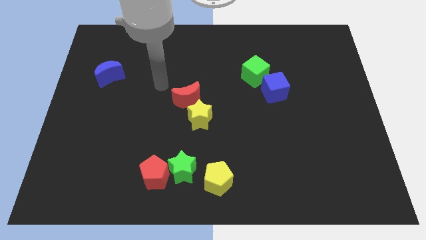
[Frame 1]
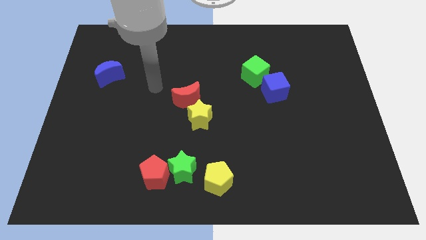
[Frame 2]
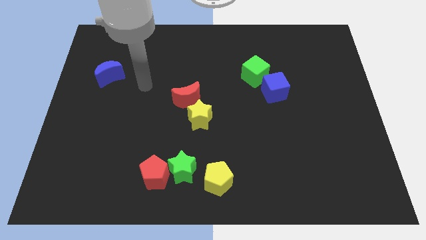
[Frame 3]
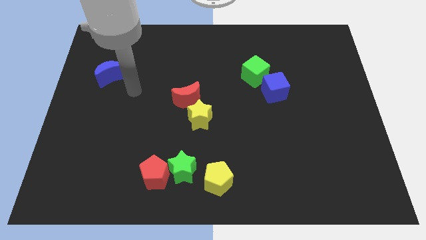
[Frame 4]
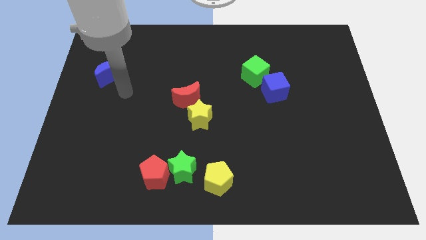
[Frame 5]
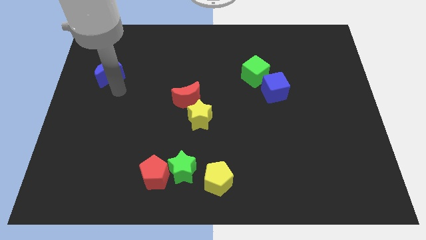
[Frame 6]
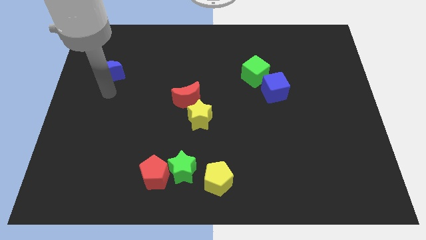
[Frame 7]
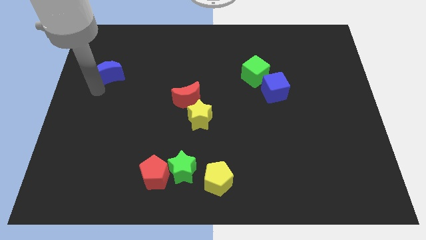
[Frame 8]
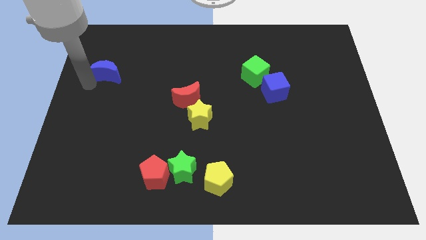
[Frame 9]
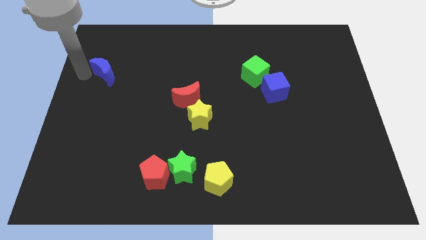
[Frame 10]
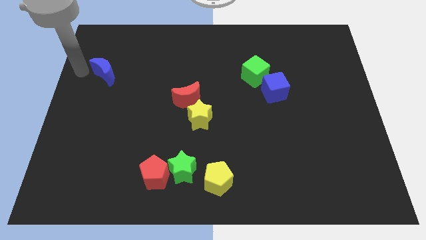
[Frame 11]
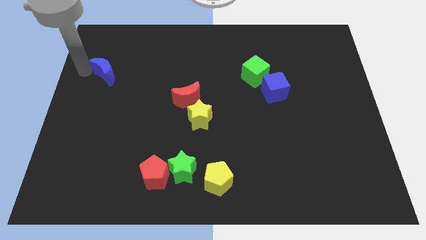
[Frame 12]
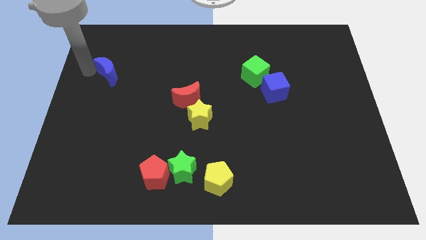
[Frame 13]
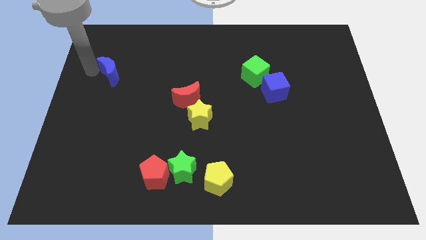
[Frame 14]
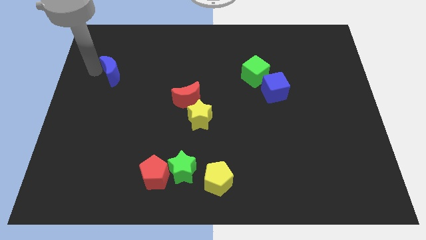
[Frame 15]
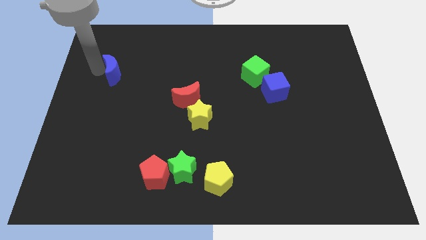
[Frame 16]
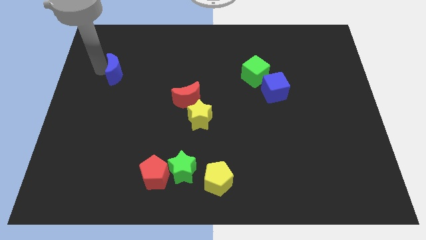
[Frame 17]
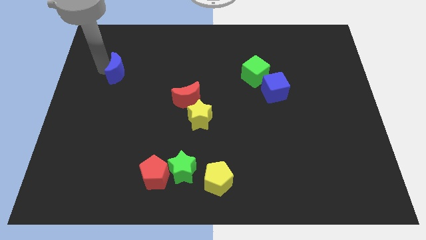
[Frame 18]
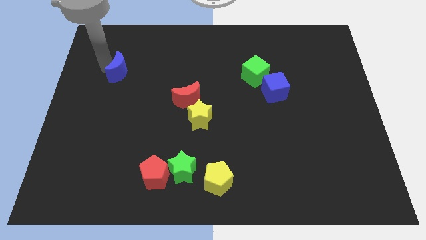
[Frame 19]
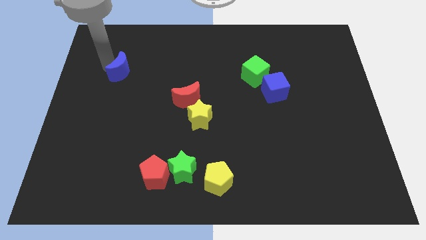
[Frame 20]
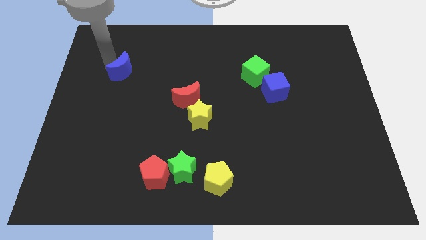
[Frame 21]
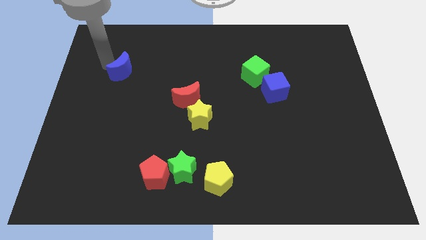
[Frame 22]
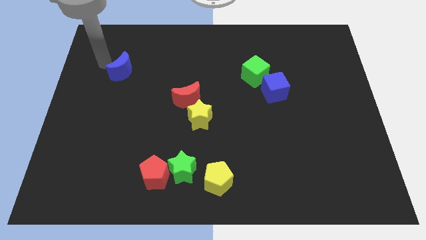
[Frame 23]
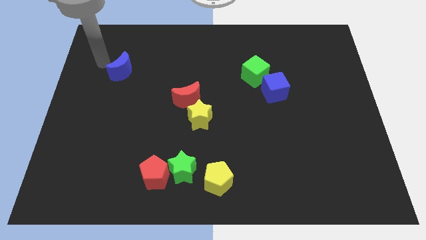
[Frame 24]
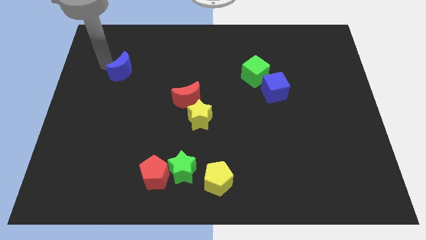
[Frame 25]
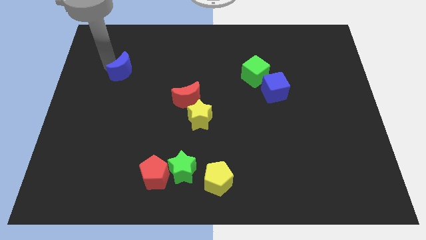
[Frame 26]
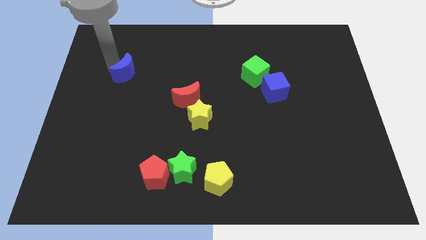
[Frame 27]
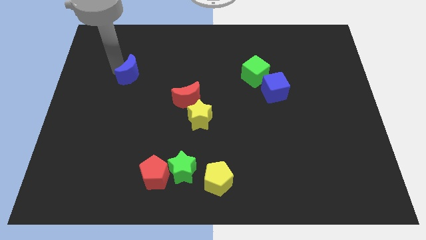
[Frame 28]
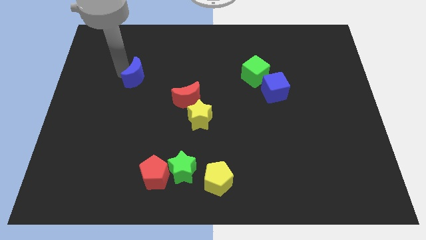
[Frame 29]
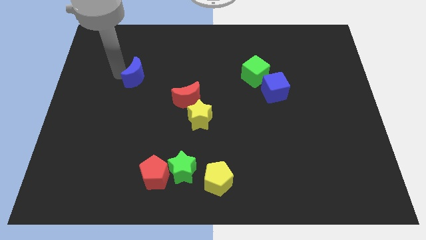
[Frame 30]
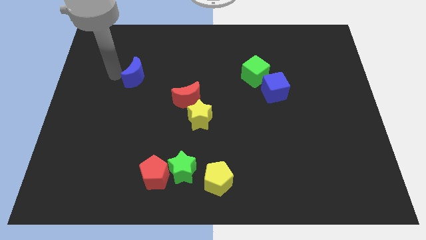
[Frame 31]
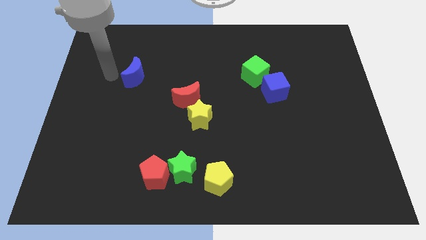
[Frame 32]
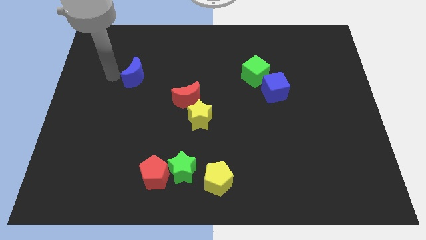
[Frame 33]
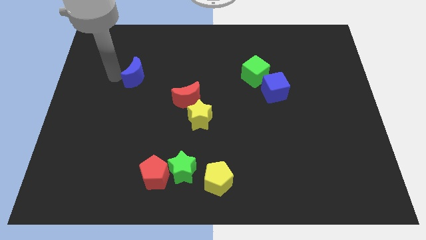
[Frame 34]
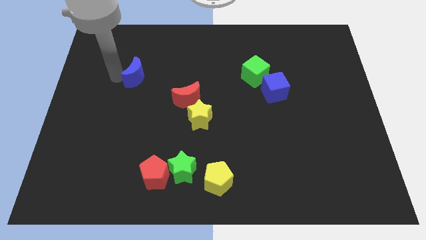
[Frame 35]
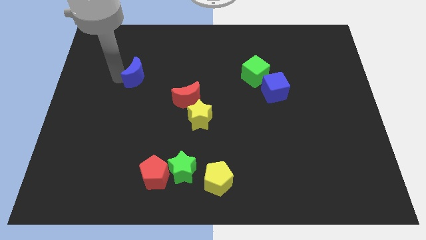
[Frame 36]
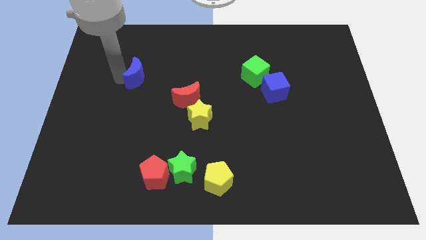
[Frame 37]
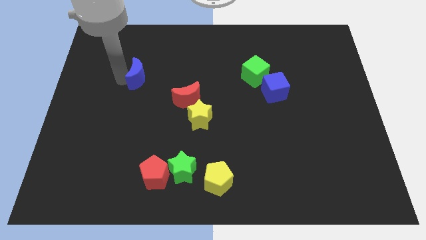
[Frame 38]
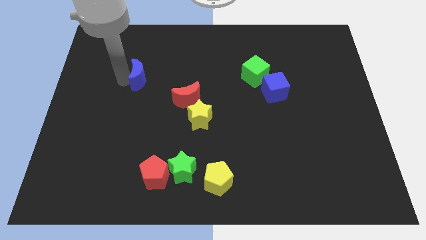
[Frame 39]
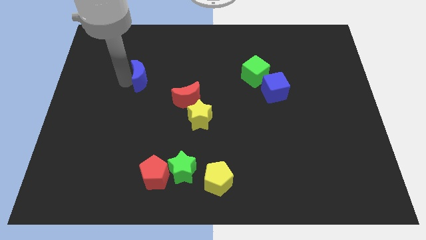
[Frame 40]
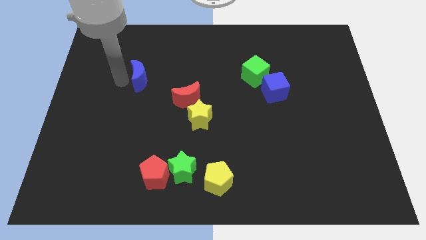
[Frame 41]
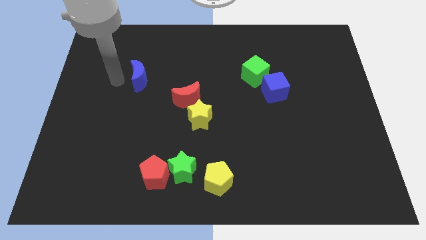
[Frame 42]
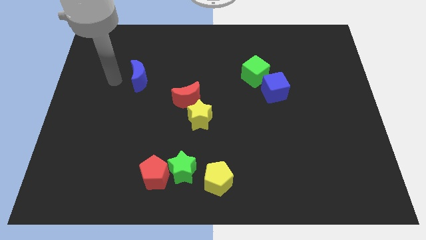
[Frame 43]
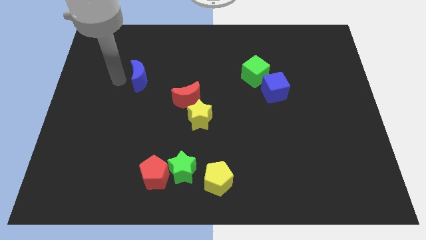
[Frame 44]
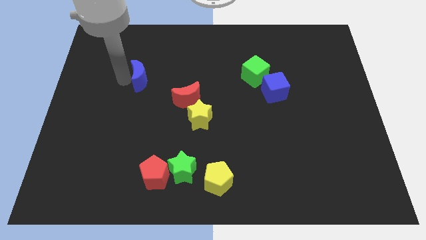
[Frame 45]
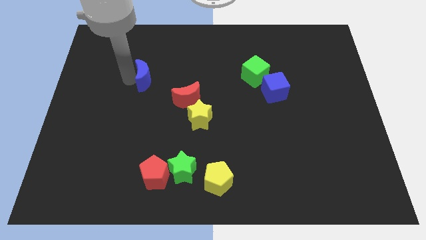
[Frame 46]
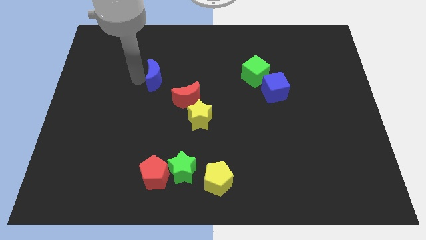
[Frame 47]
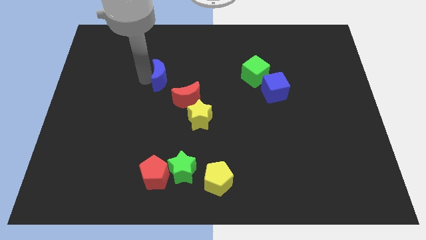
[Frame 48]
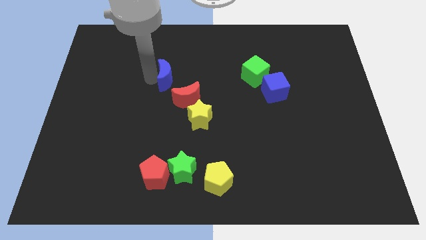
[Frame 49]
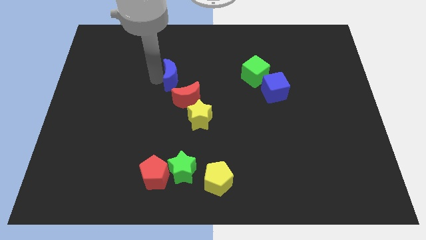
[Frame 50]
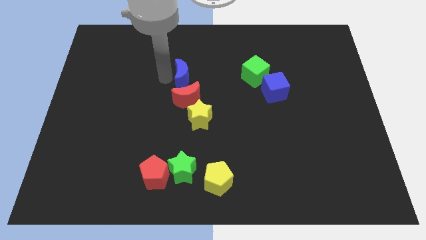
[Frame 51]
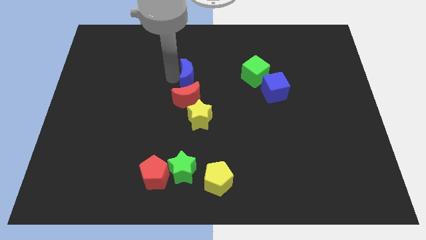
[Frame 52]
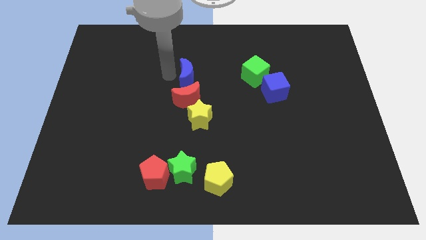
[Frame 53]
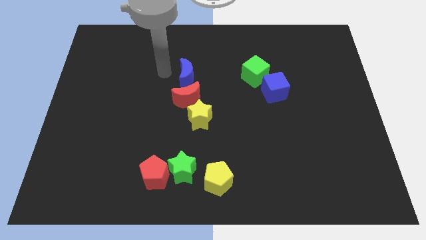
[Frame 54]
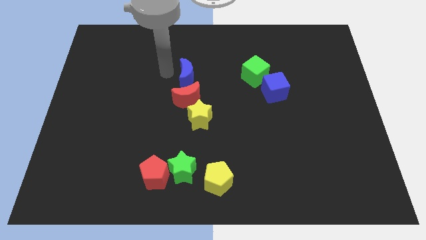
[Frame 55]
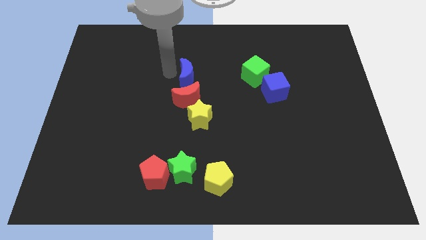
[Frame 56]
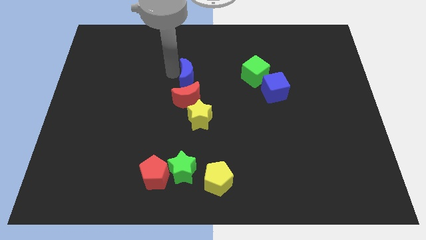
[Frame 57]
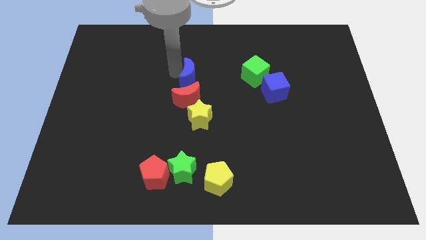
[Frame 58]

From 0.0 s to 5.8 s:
put the blue moon to the top right side of the red moon

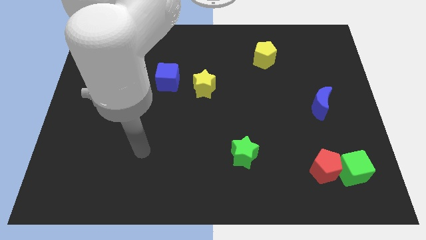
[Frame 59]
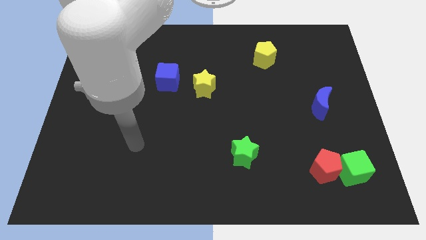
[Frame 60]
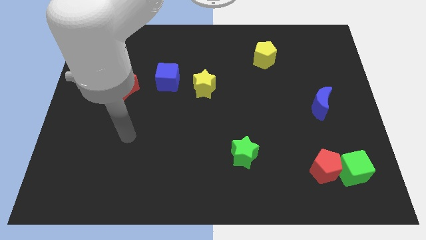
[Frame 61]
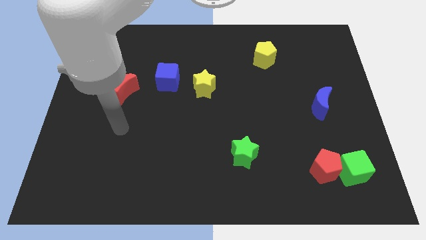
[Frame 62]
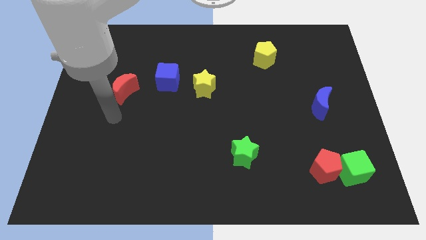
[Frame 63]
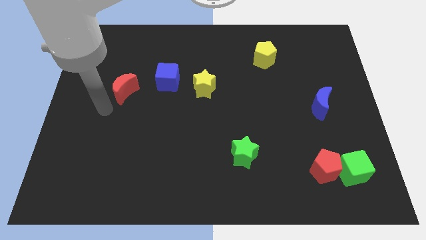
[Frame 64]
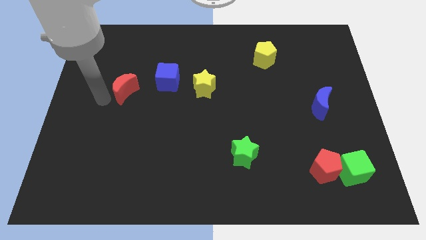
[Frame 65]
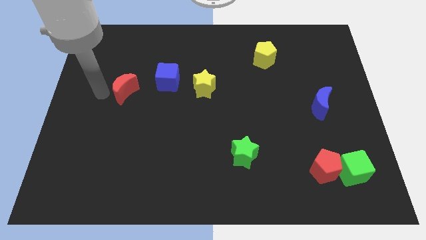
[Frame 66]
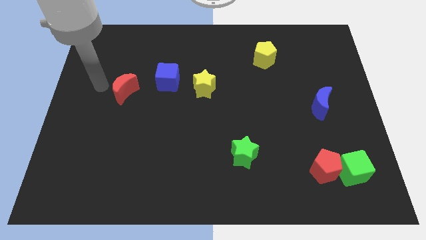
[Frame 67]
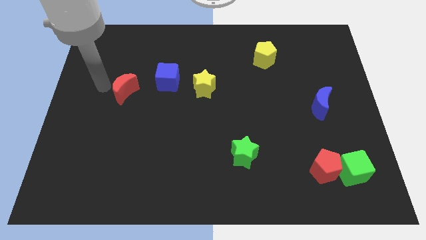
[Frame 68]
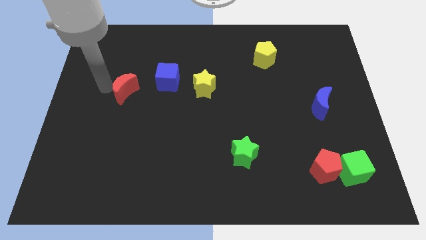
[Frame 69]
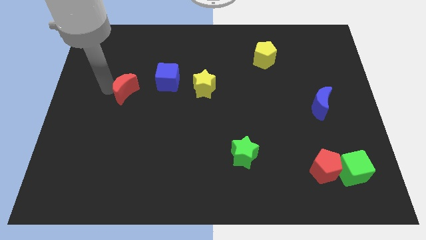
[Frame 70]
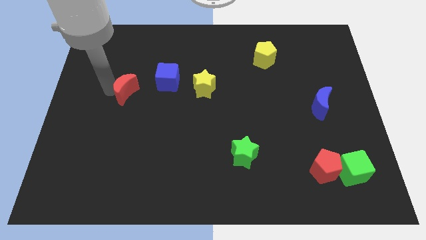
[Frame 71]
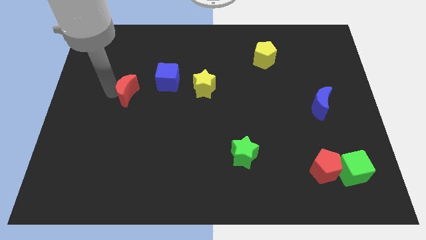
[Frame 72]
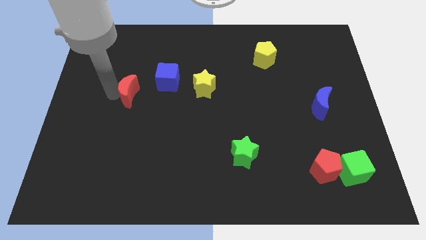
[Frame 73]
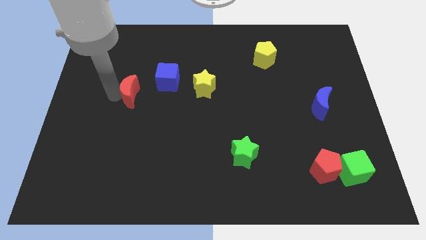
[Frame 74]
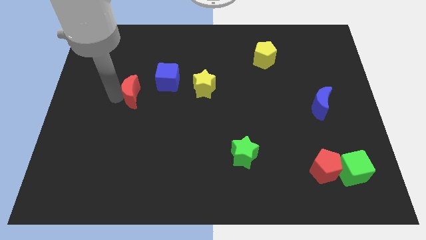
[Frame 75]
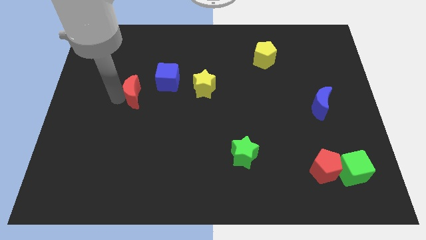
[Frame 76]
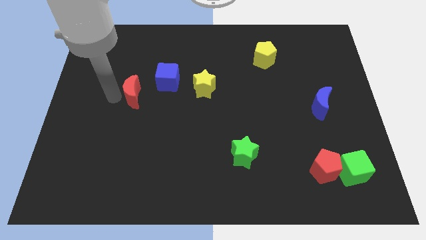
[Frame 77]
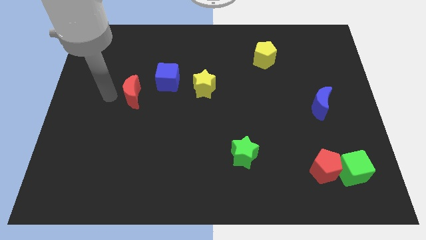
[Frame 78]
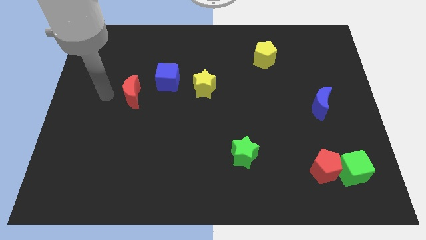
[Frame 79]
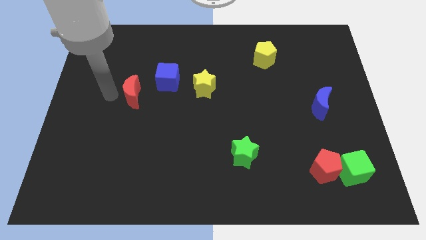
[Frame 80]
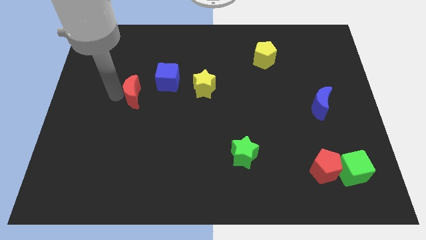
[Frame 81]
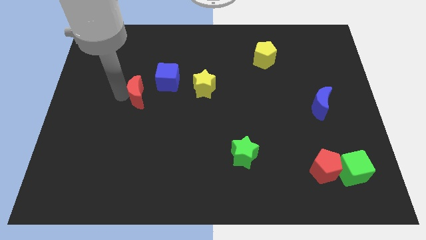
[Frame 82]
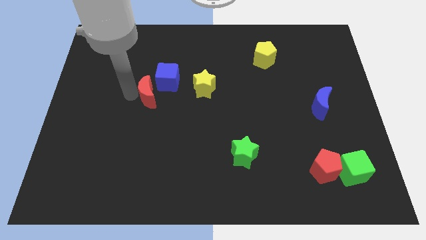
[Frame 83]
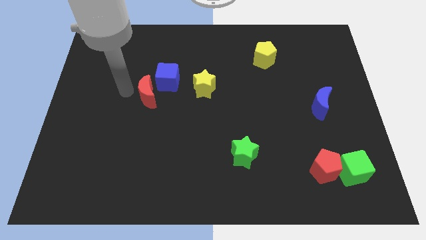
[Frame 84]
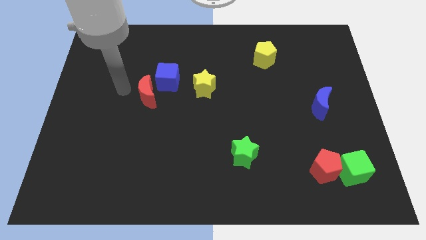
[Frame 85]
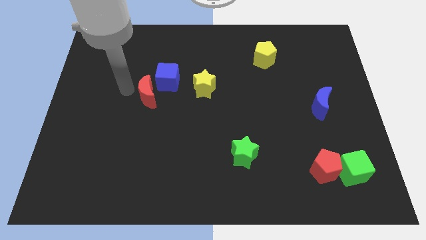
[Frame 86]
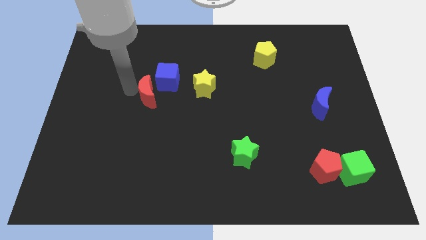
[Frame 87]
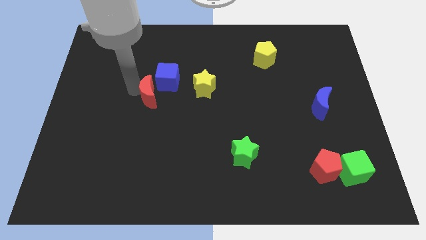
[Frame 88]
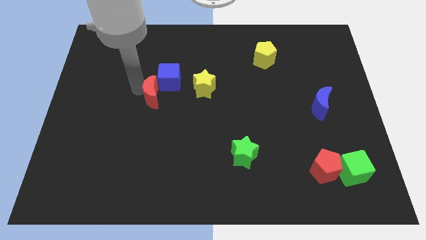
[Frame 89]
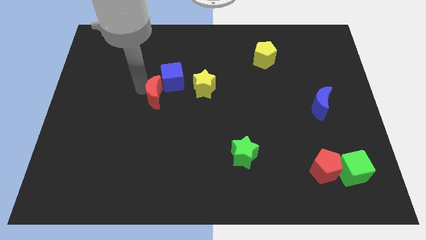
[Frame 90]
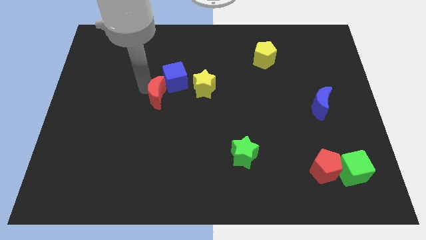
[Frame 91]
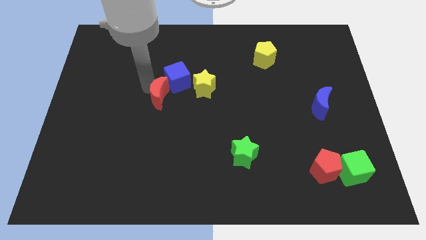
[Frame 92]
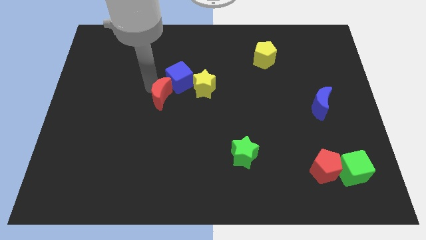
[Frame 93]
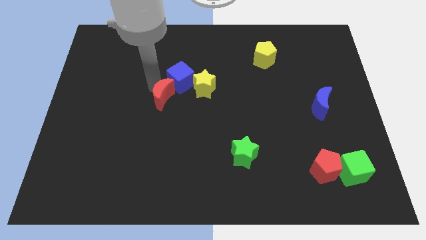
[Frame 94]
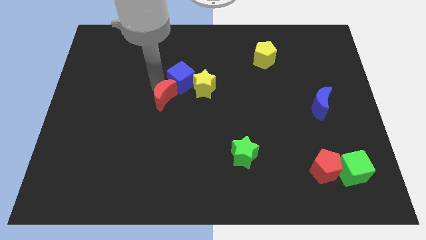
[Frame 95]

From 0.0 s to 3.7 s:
push the red moon to the bottom left of the yellow star
